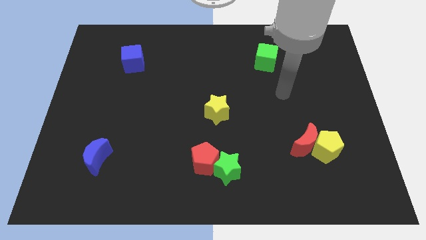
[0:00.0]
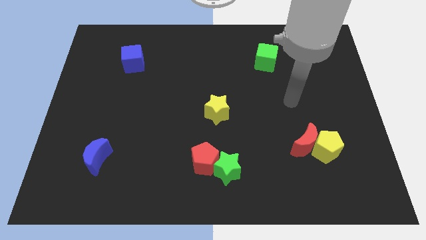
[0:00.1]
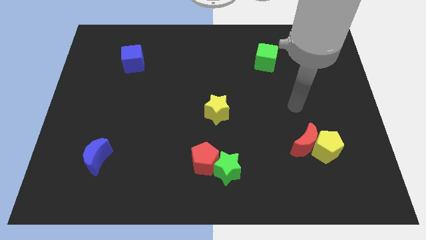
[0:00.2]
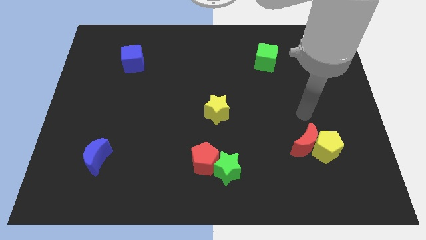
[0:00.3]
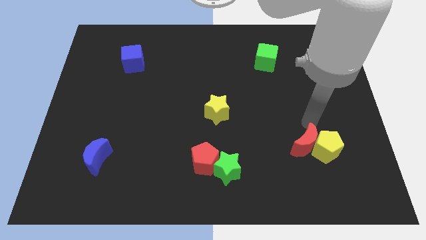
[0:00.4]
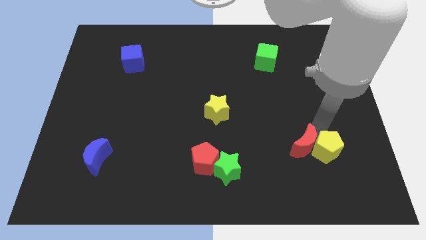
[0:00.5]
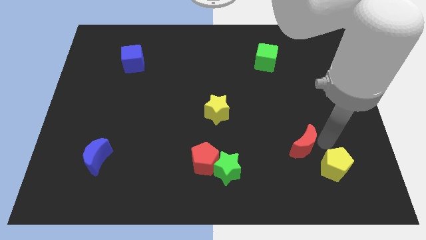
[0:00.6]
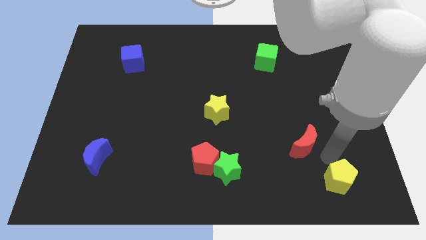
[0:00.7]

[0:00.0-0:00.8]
move the red moon away from the yellow pentagon

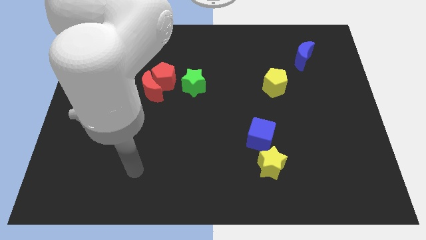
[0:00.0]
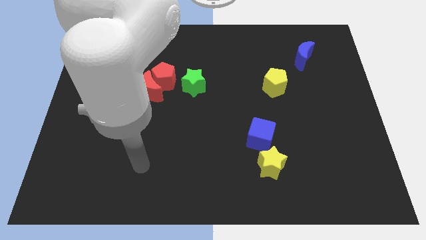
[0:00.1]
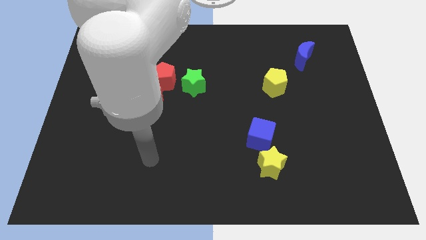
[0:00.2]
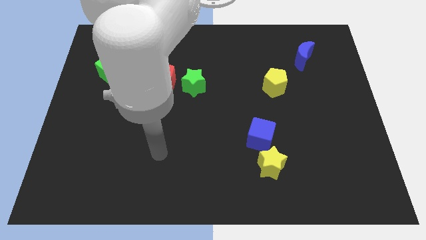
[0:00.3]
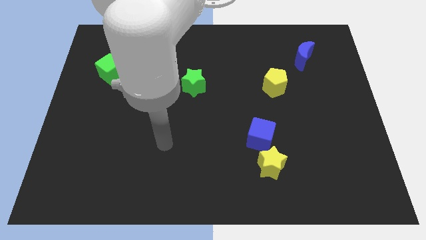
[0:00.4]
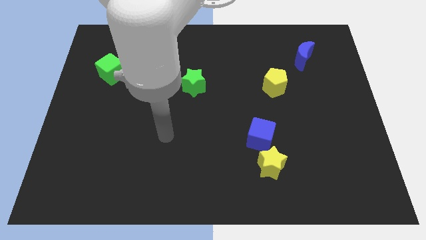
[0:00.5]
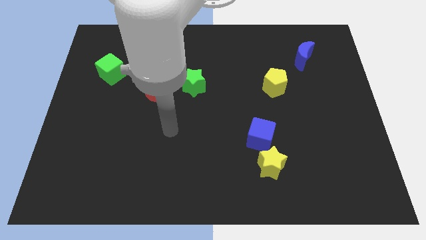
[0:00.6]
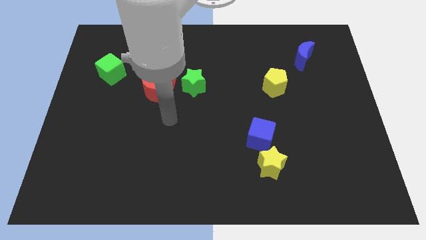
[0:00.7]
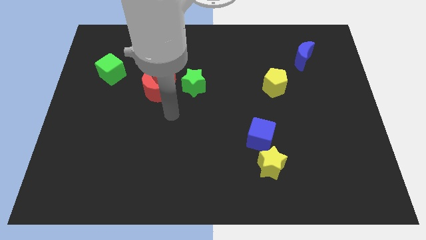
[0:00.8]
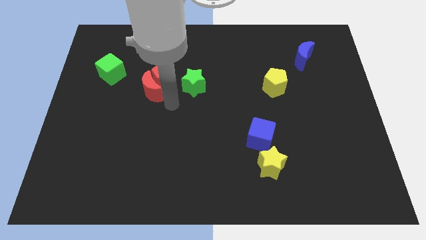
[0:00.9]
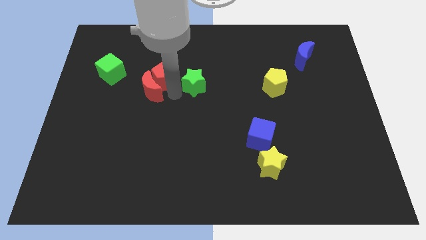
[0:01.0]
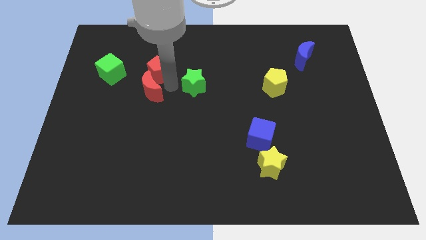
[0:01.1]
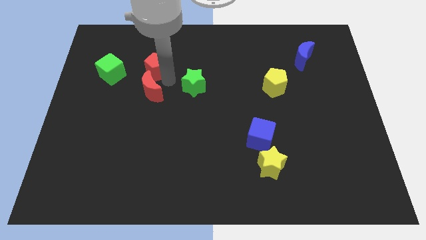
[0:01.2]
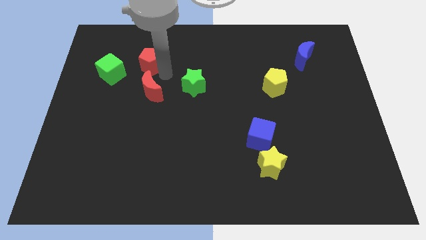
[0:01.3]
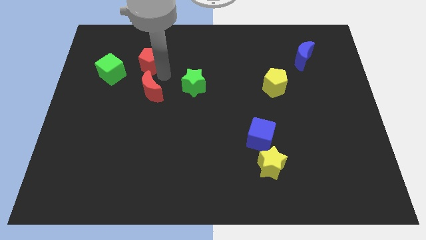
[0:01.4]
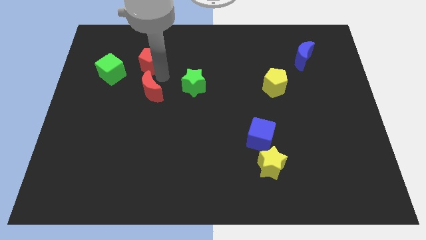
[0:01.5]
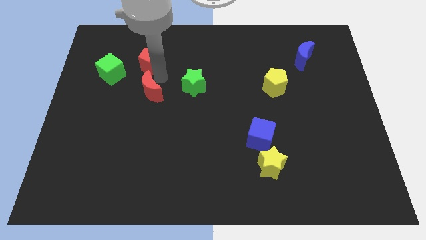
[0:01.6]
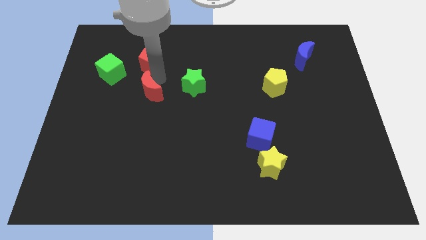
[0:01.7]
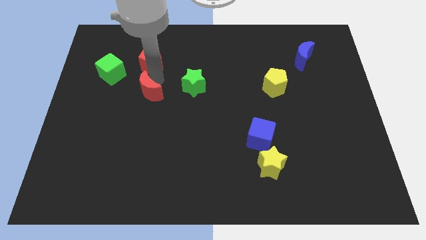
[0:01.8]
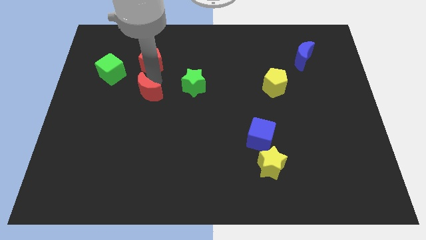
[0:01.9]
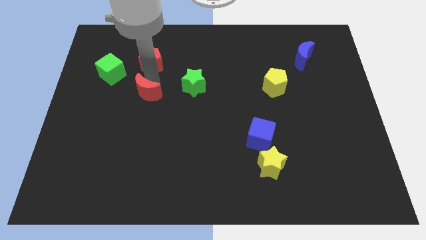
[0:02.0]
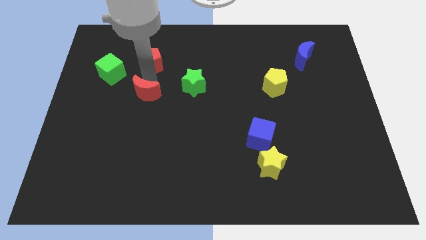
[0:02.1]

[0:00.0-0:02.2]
move the red moon away from the red pentagon

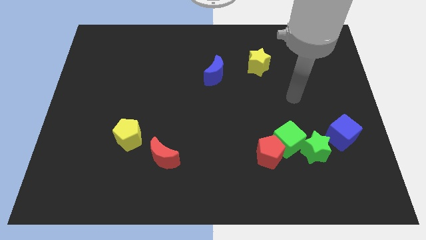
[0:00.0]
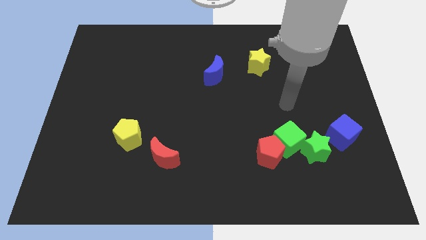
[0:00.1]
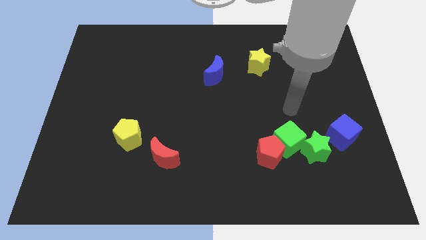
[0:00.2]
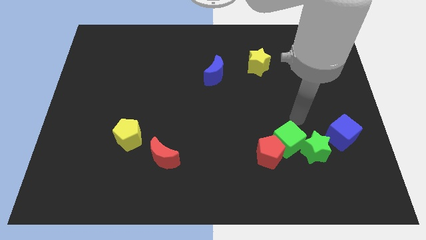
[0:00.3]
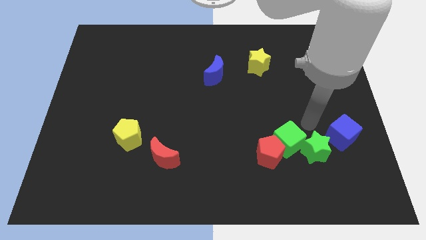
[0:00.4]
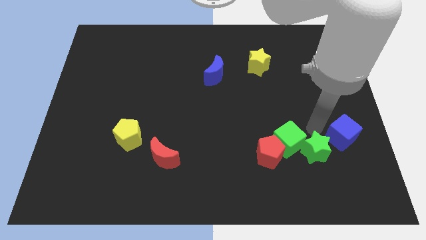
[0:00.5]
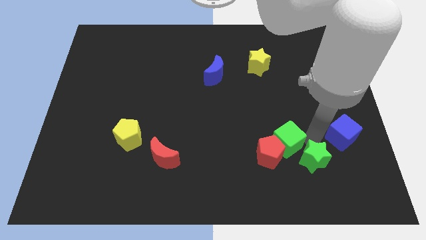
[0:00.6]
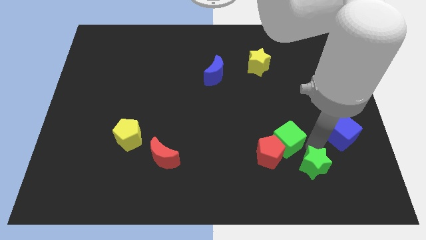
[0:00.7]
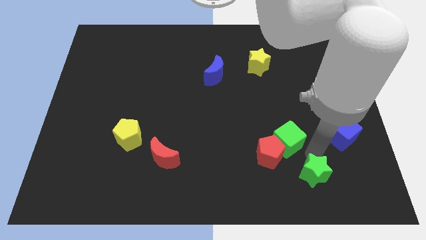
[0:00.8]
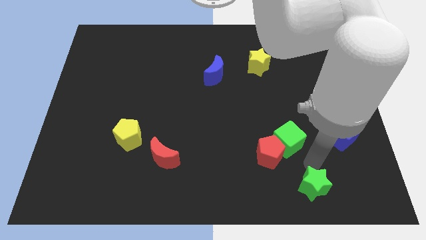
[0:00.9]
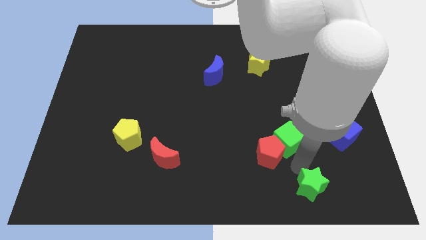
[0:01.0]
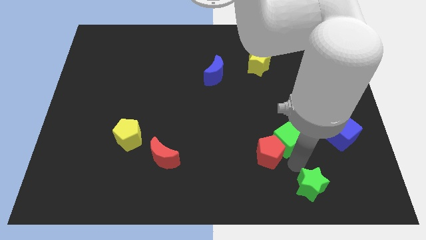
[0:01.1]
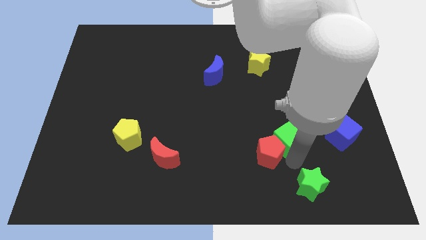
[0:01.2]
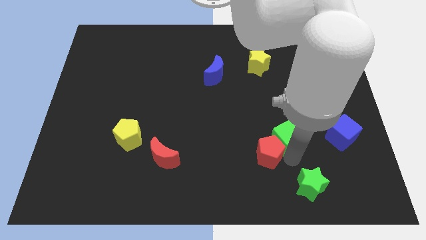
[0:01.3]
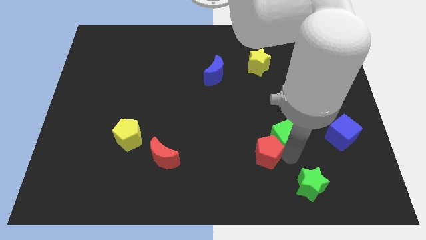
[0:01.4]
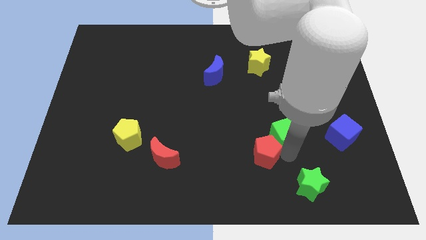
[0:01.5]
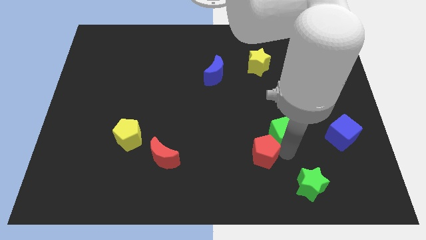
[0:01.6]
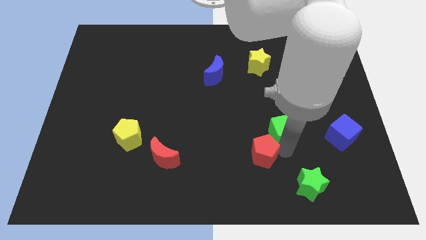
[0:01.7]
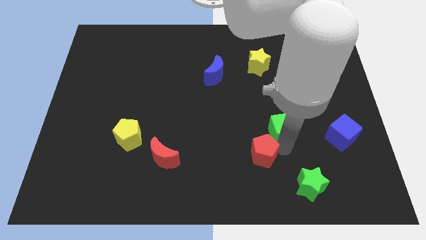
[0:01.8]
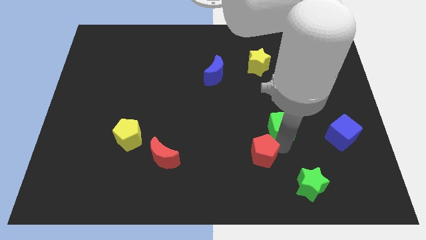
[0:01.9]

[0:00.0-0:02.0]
pull the green cube apart from the red pentagon and green star

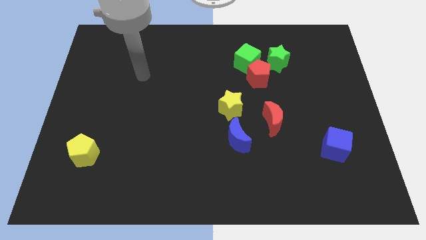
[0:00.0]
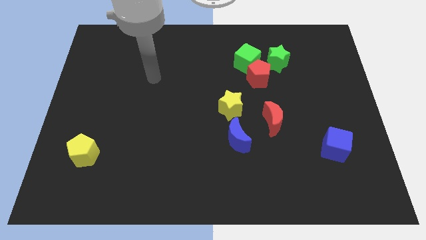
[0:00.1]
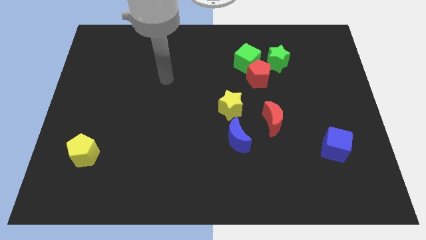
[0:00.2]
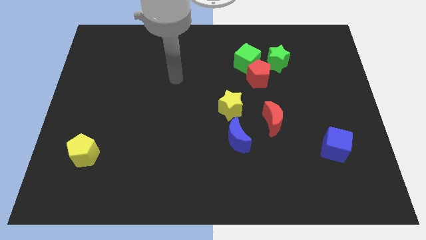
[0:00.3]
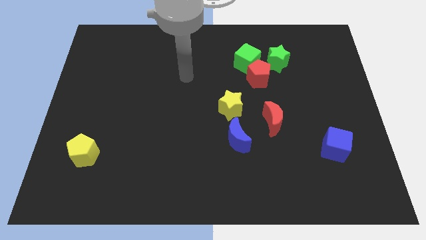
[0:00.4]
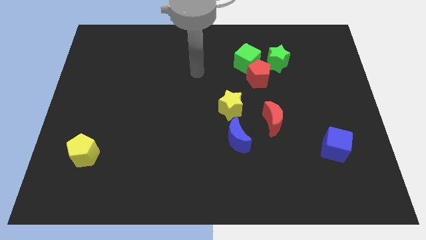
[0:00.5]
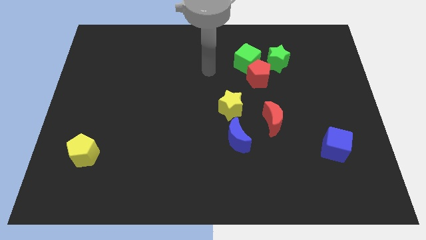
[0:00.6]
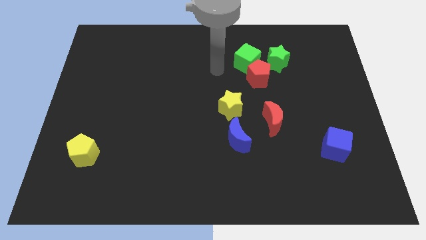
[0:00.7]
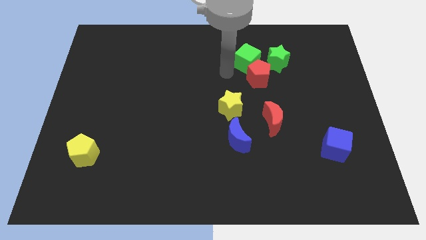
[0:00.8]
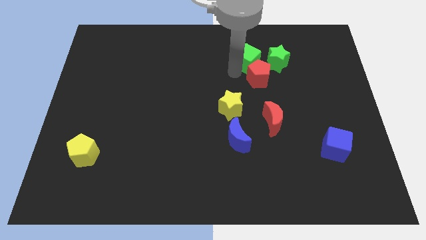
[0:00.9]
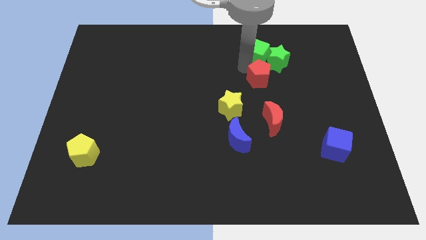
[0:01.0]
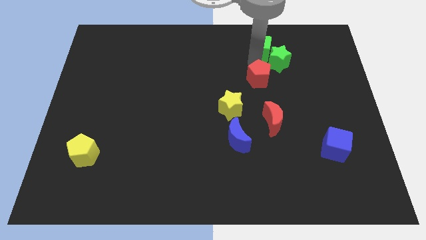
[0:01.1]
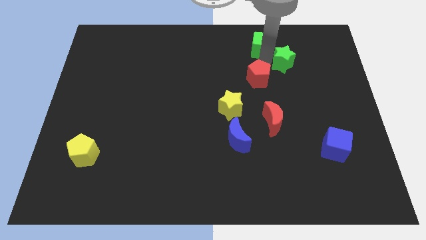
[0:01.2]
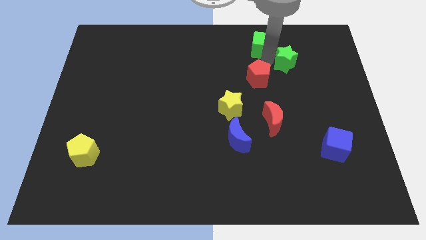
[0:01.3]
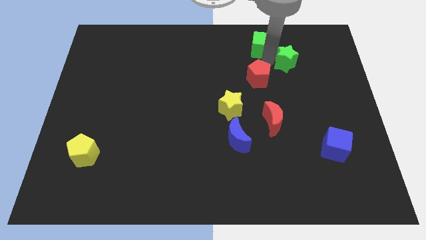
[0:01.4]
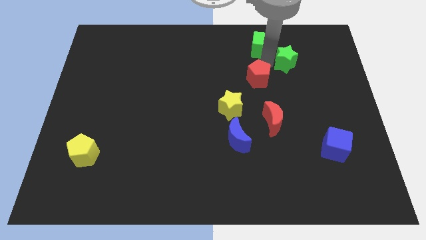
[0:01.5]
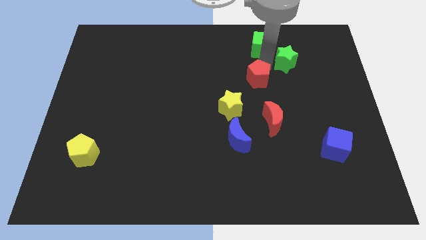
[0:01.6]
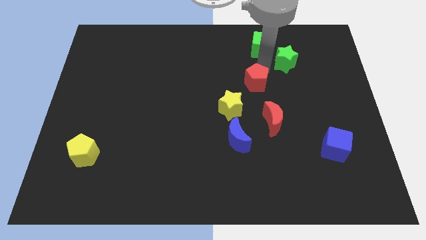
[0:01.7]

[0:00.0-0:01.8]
move the red pentagon away from the green cube and green star

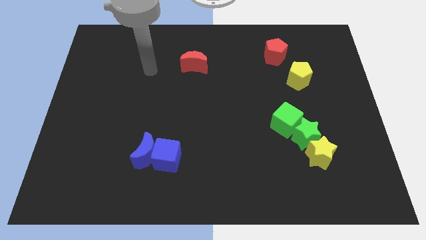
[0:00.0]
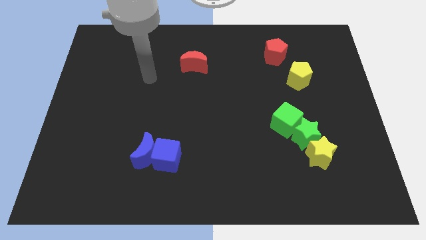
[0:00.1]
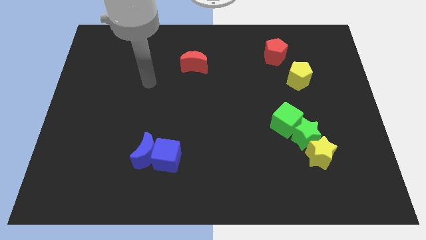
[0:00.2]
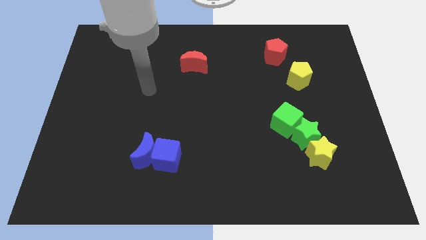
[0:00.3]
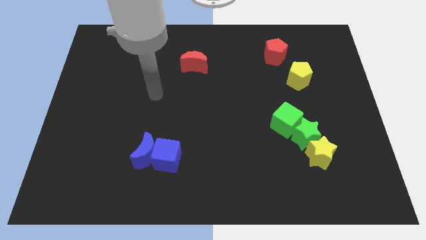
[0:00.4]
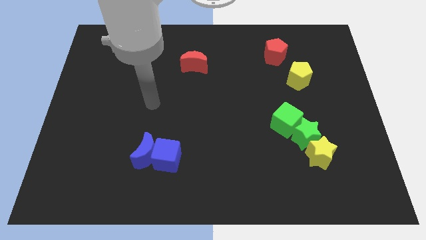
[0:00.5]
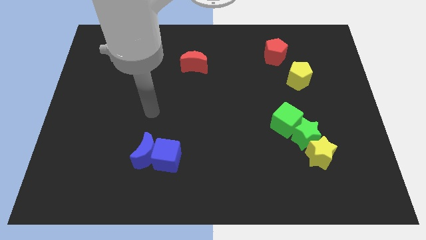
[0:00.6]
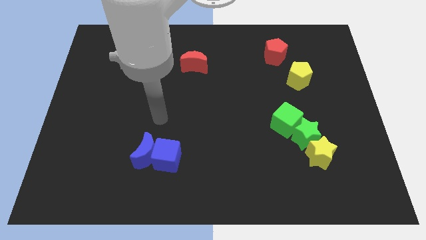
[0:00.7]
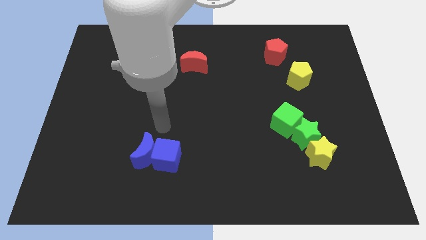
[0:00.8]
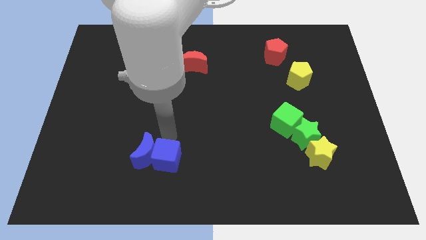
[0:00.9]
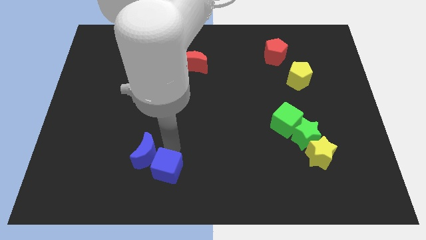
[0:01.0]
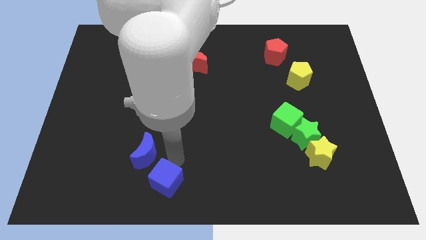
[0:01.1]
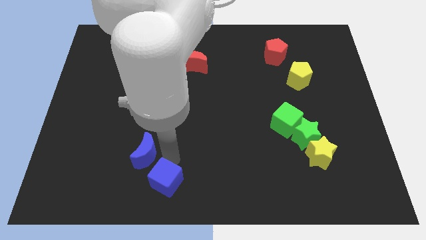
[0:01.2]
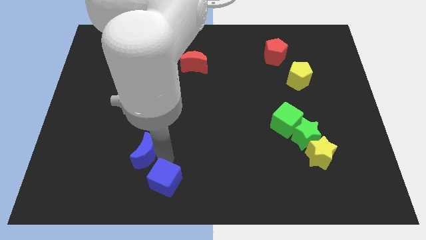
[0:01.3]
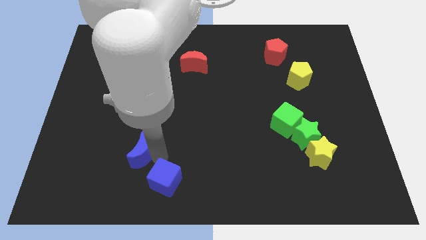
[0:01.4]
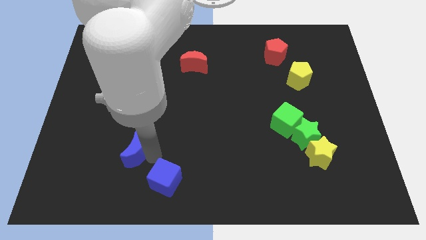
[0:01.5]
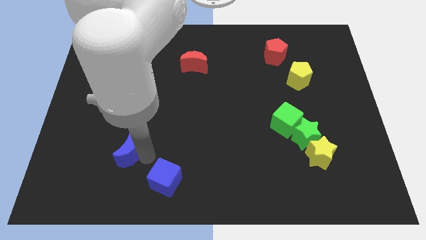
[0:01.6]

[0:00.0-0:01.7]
separate the blue moon from the blue cube

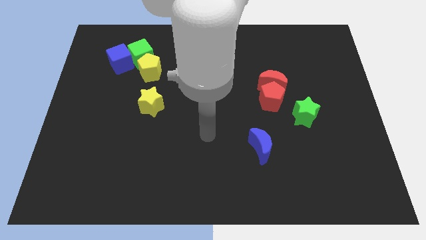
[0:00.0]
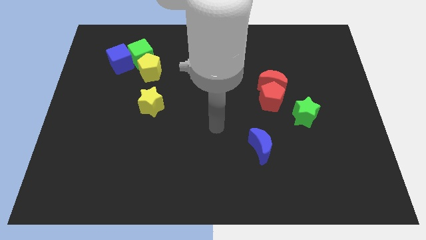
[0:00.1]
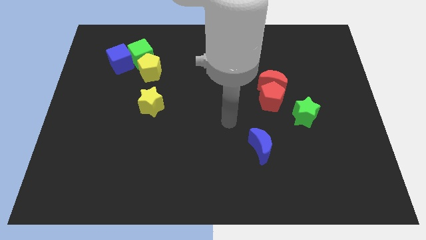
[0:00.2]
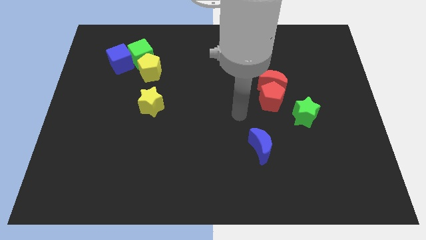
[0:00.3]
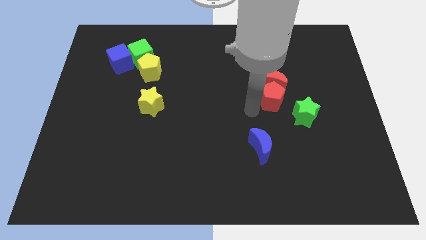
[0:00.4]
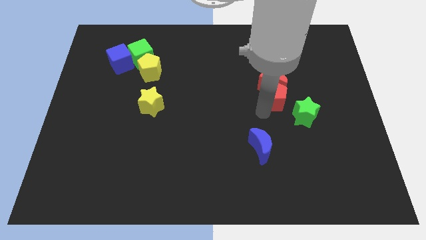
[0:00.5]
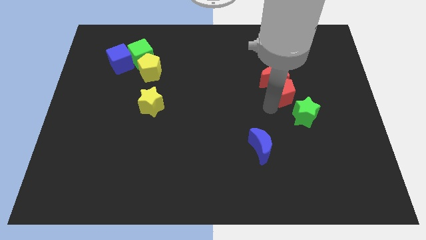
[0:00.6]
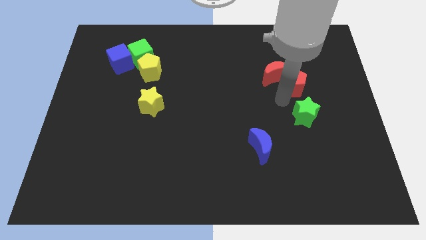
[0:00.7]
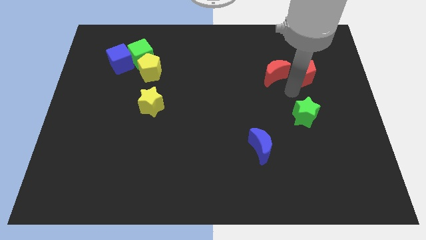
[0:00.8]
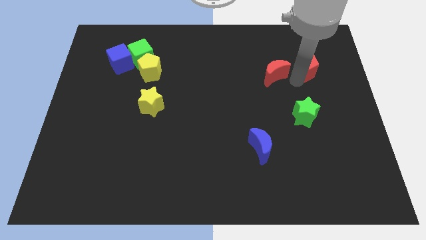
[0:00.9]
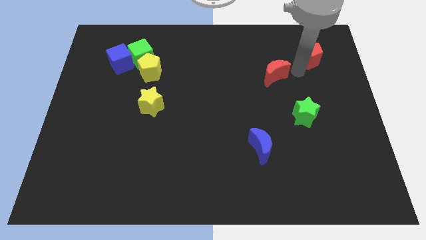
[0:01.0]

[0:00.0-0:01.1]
separate the red moon from the red pentagon
